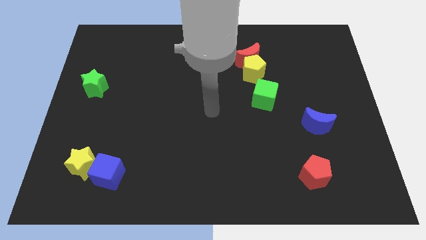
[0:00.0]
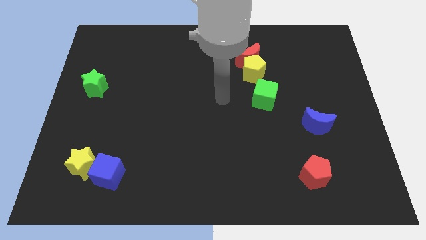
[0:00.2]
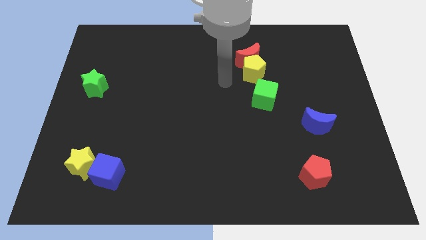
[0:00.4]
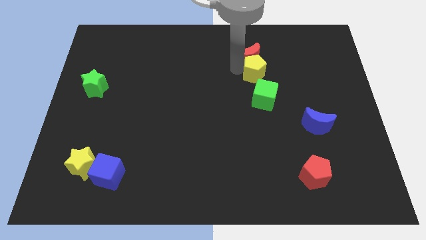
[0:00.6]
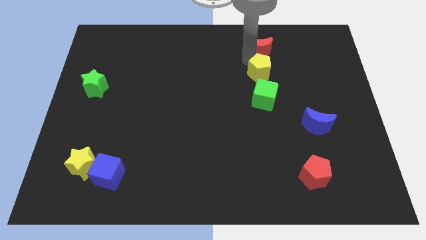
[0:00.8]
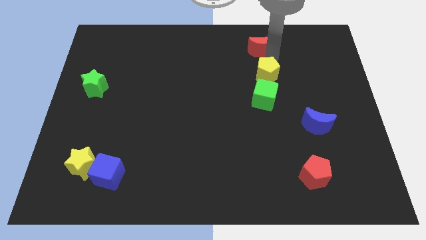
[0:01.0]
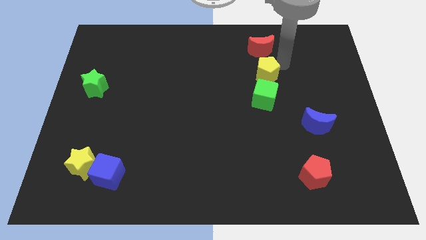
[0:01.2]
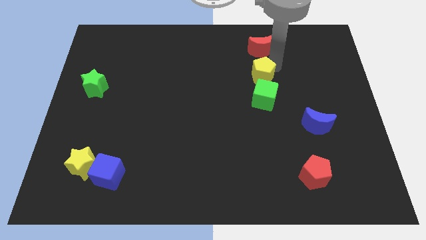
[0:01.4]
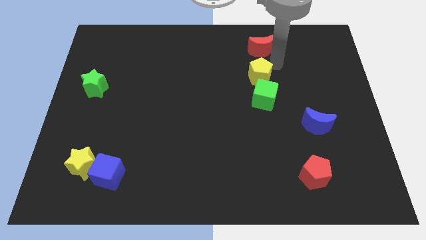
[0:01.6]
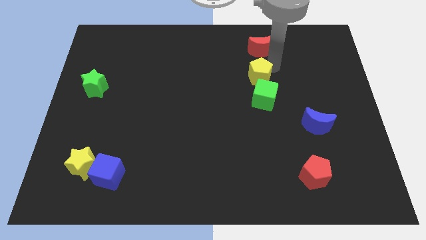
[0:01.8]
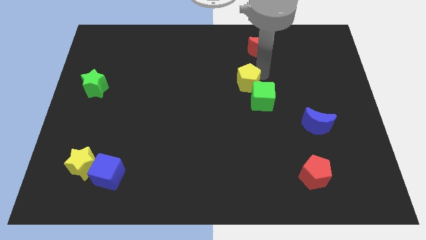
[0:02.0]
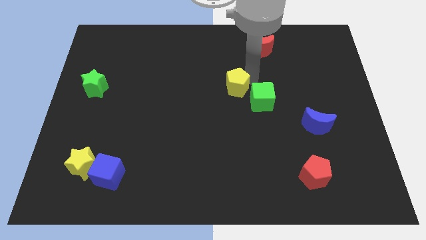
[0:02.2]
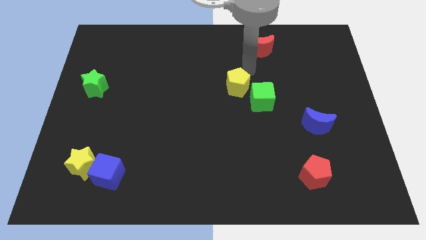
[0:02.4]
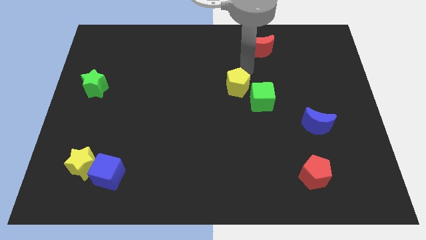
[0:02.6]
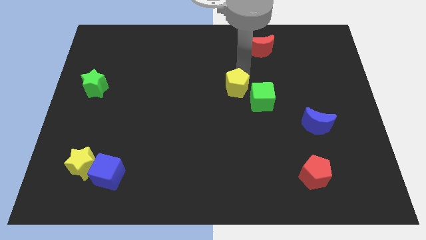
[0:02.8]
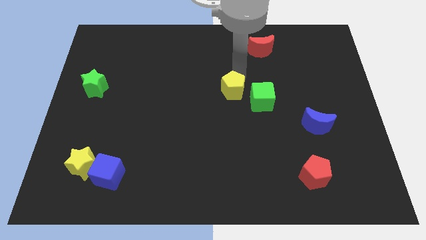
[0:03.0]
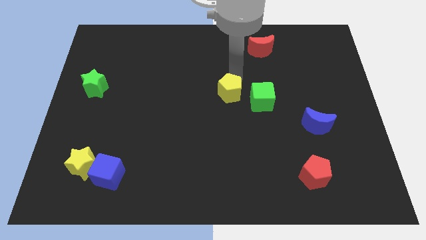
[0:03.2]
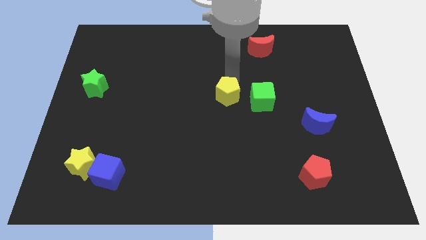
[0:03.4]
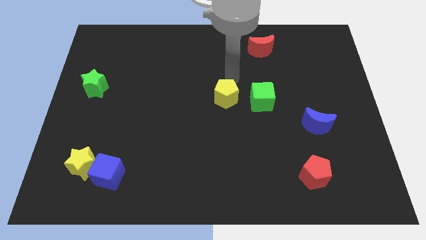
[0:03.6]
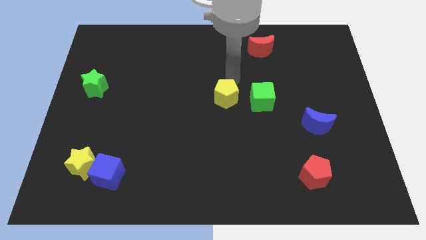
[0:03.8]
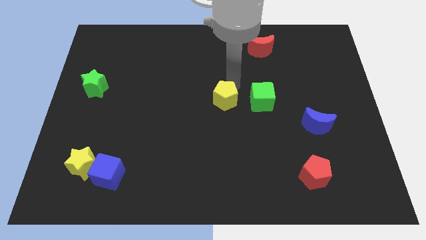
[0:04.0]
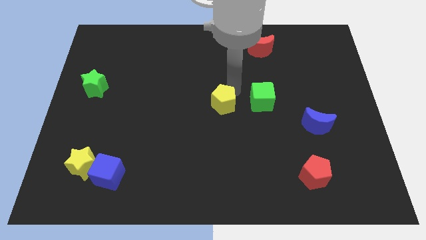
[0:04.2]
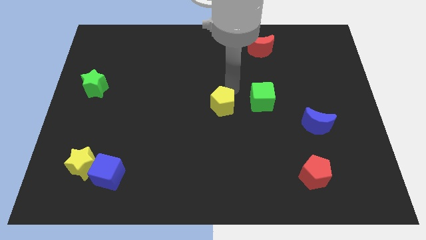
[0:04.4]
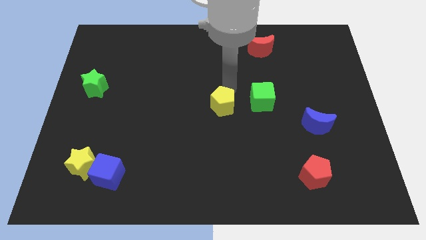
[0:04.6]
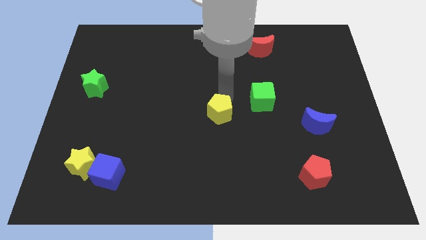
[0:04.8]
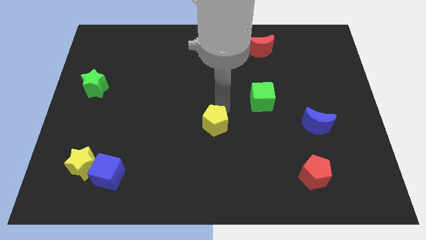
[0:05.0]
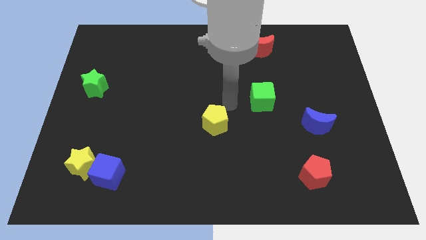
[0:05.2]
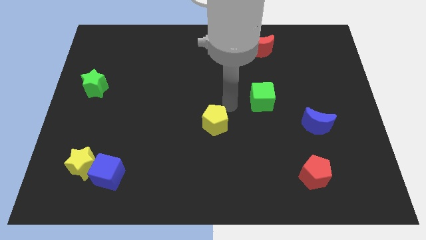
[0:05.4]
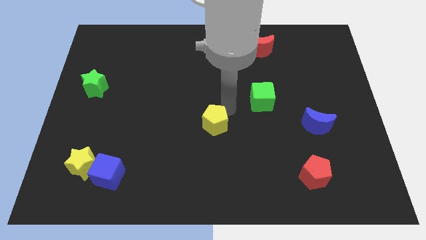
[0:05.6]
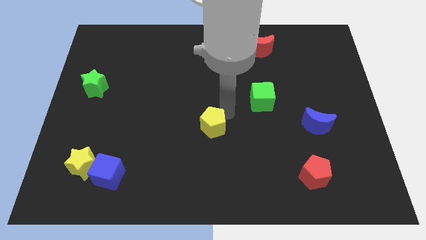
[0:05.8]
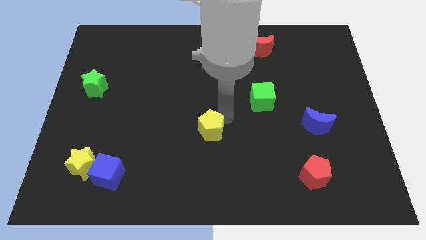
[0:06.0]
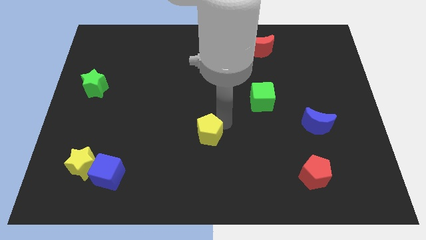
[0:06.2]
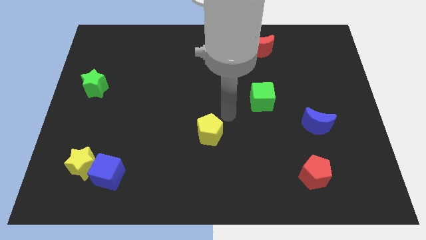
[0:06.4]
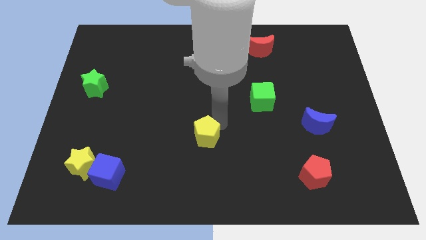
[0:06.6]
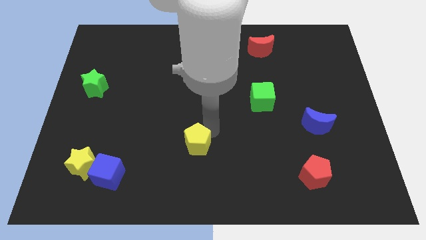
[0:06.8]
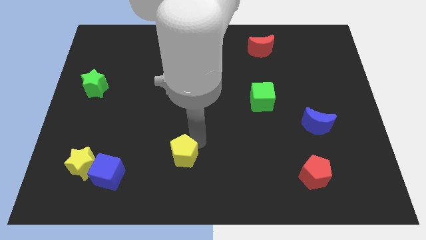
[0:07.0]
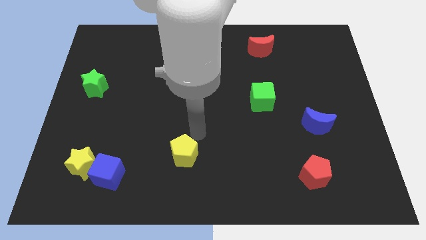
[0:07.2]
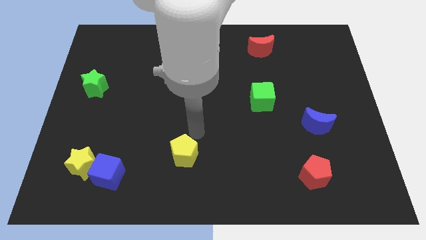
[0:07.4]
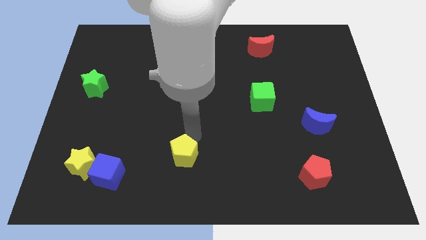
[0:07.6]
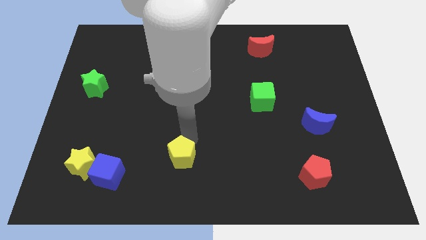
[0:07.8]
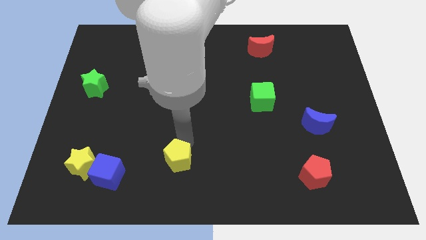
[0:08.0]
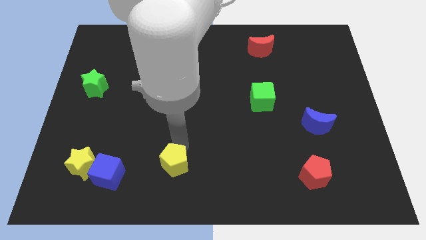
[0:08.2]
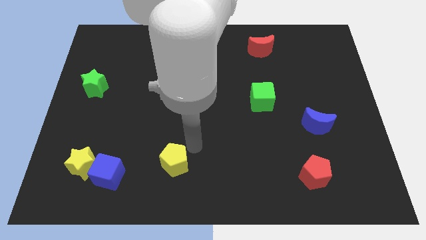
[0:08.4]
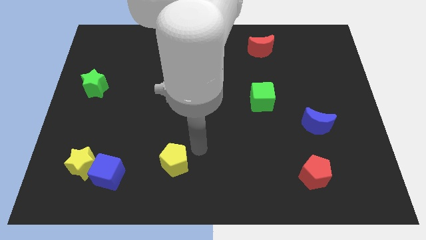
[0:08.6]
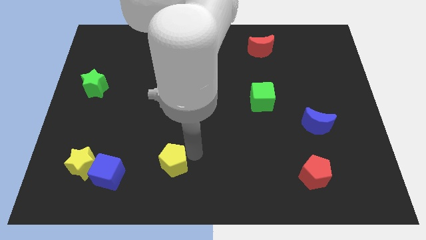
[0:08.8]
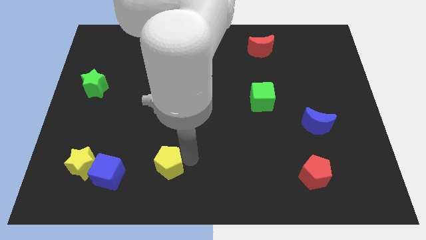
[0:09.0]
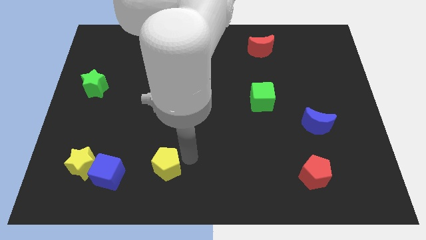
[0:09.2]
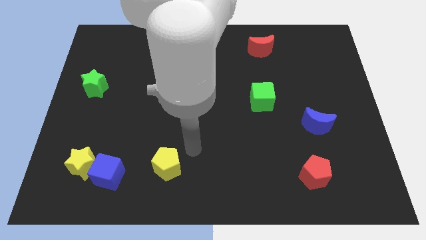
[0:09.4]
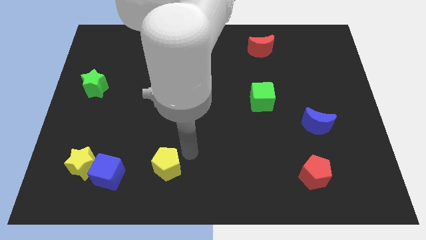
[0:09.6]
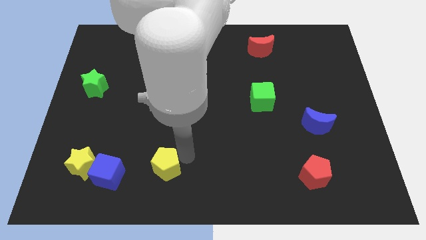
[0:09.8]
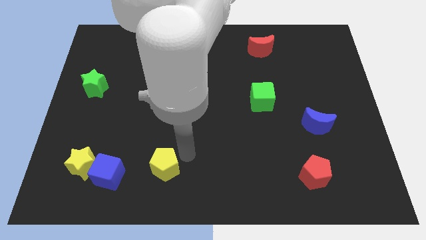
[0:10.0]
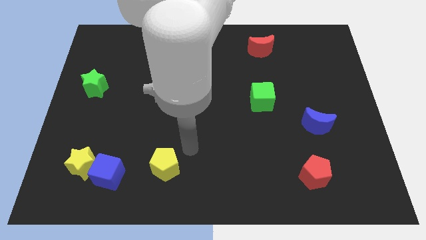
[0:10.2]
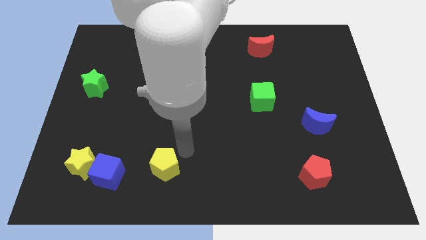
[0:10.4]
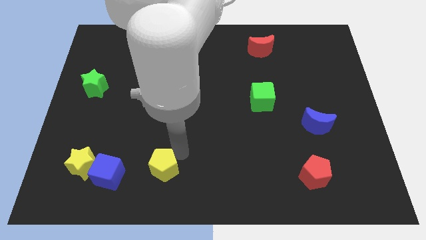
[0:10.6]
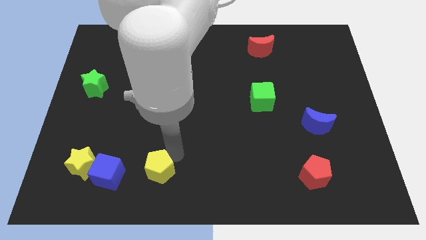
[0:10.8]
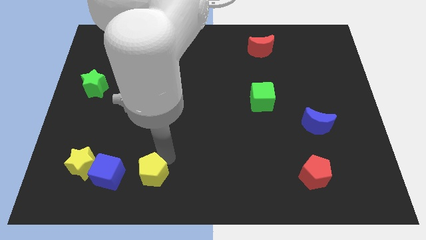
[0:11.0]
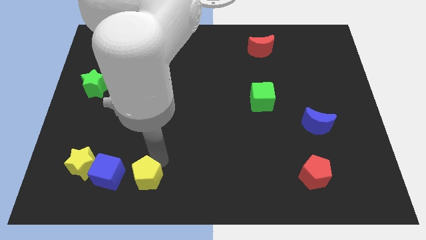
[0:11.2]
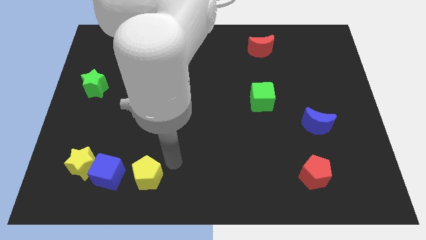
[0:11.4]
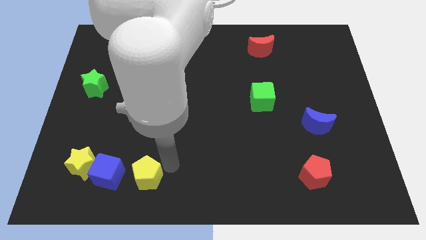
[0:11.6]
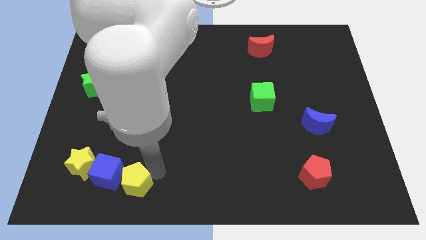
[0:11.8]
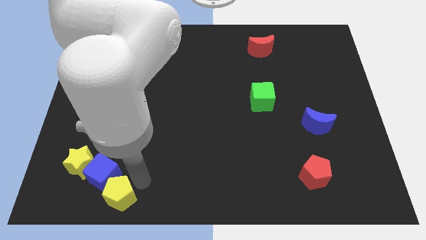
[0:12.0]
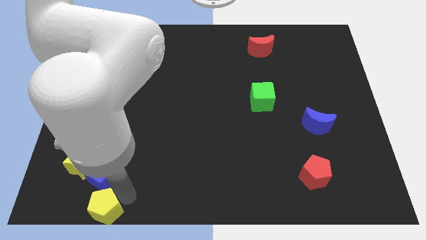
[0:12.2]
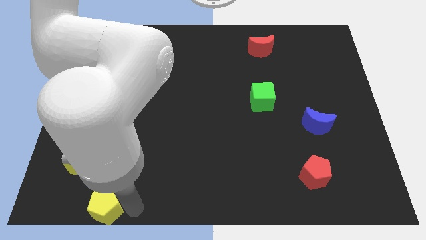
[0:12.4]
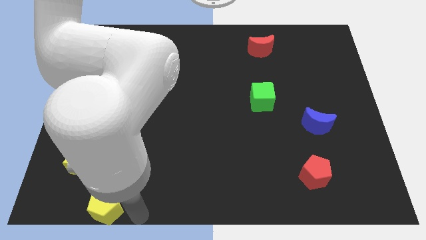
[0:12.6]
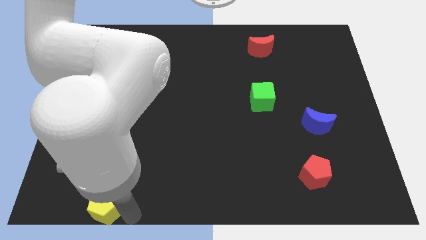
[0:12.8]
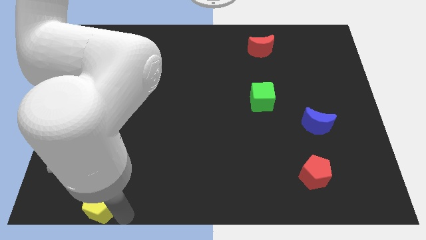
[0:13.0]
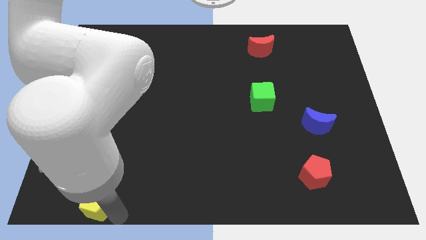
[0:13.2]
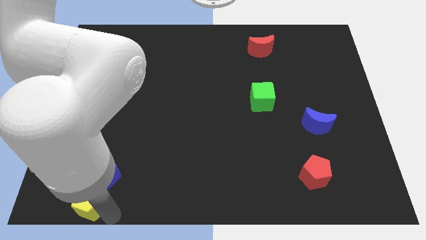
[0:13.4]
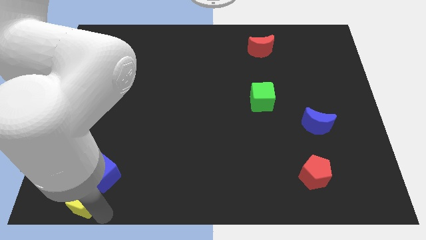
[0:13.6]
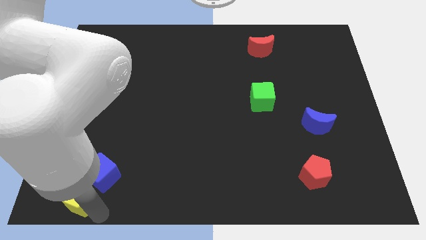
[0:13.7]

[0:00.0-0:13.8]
put the yellow pentagon to the bottom left of the board
